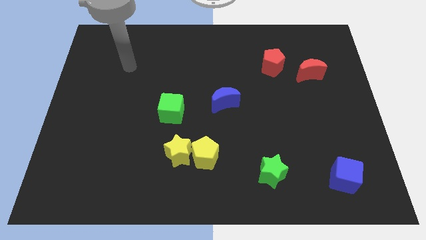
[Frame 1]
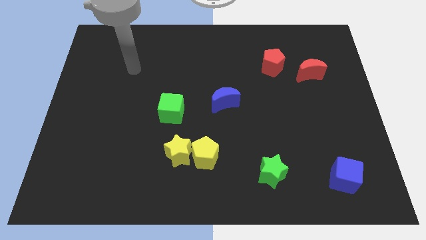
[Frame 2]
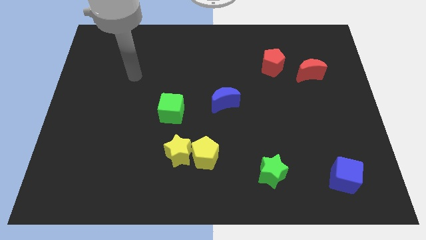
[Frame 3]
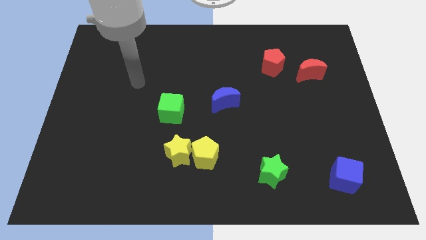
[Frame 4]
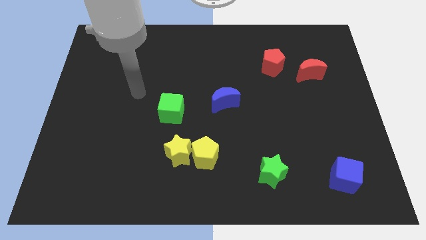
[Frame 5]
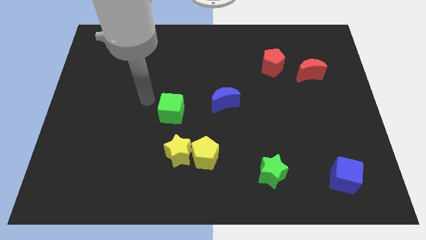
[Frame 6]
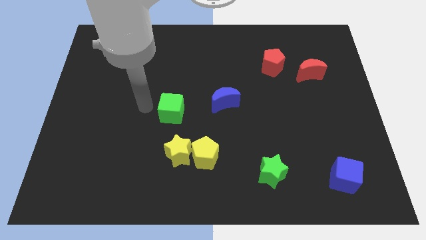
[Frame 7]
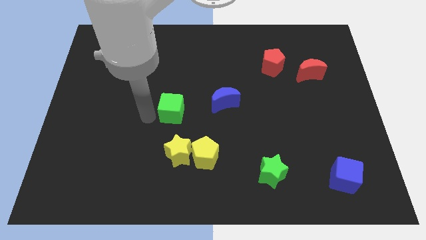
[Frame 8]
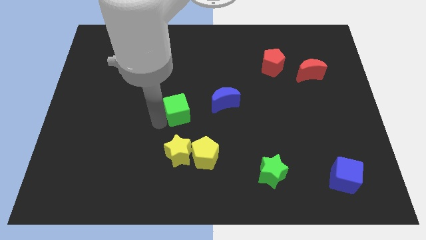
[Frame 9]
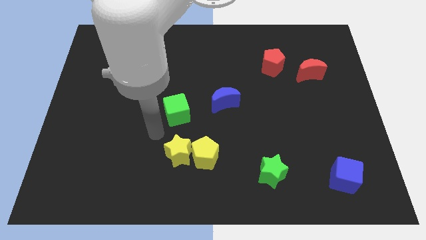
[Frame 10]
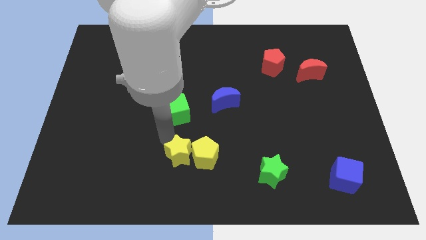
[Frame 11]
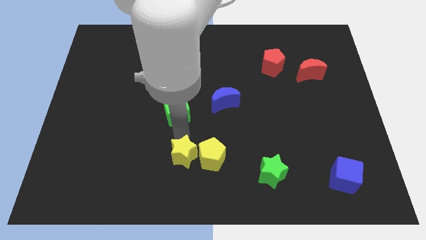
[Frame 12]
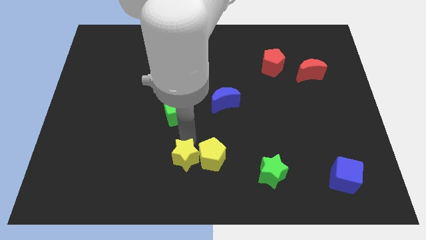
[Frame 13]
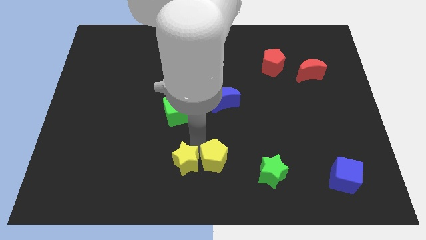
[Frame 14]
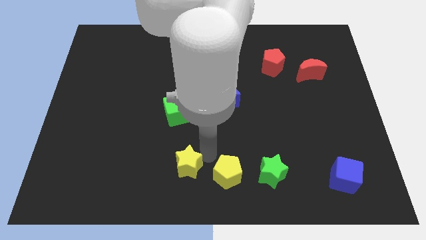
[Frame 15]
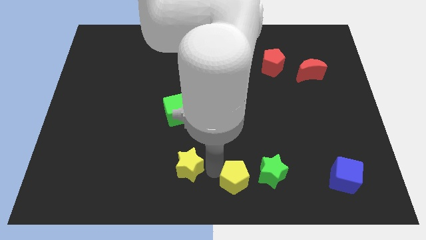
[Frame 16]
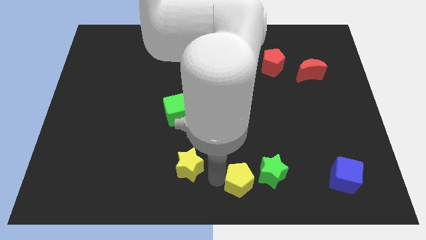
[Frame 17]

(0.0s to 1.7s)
separate the yellow star from the yellow pentagon

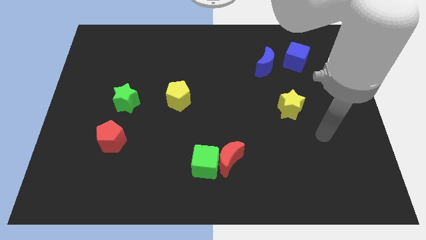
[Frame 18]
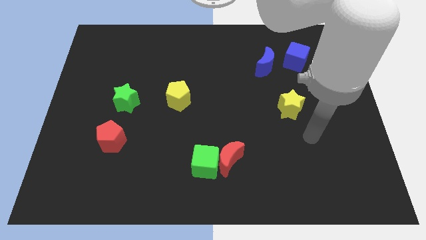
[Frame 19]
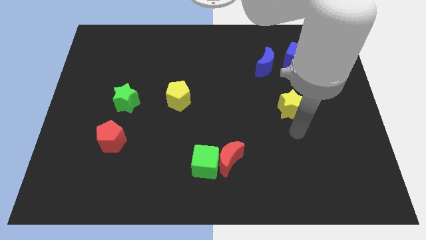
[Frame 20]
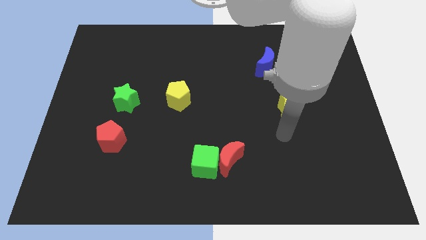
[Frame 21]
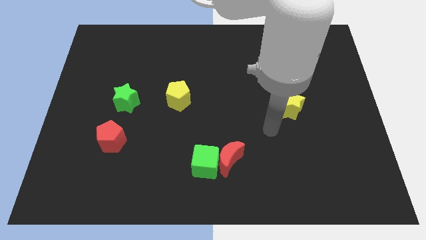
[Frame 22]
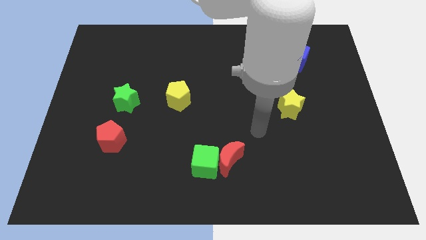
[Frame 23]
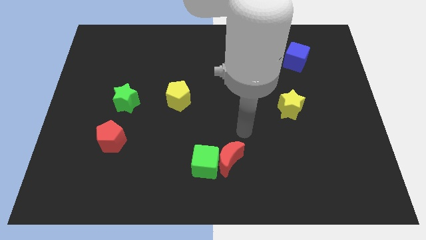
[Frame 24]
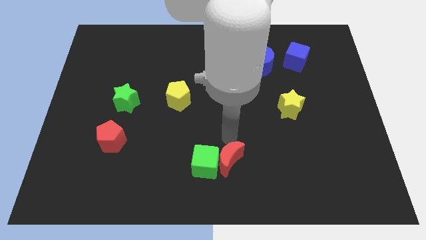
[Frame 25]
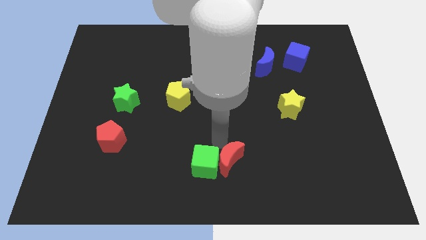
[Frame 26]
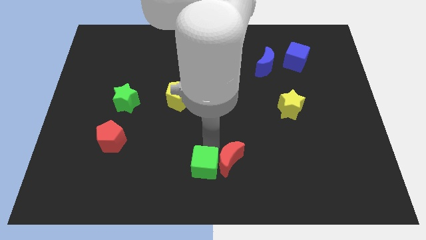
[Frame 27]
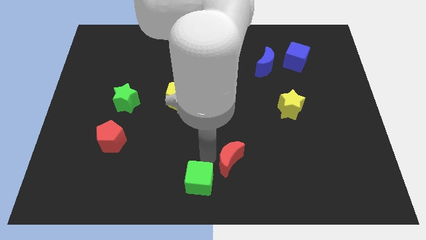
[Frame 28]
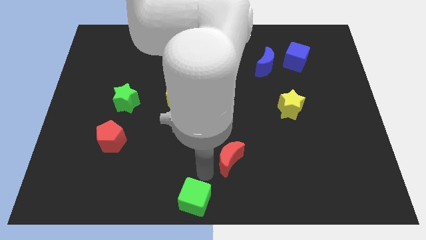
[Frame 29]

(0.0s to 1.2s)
separate the red moon from the green cube

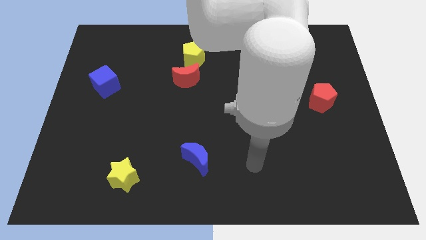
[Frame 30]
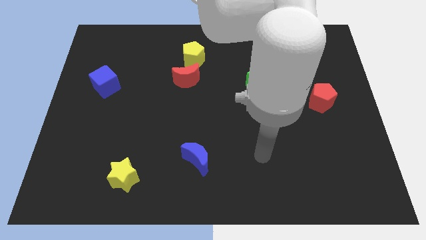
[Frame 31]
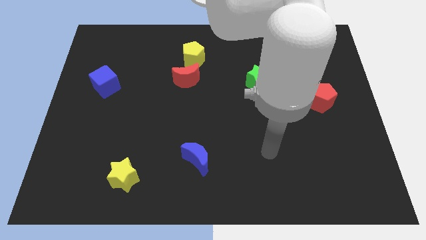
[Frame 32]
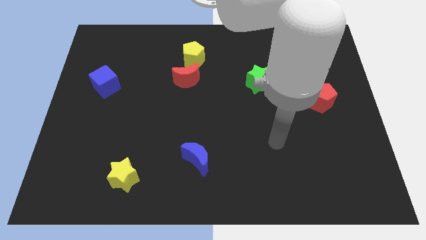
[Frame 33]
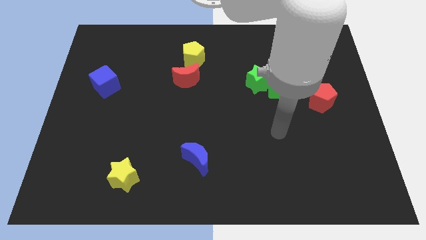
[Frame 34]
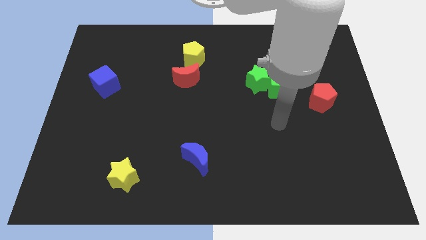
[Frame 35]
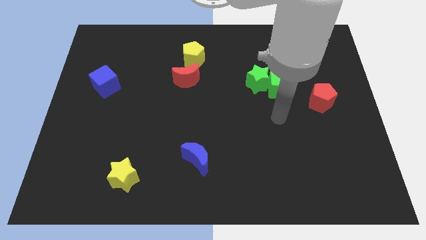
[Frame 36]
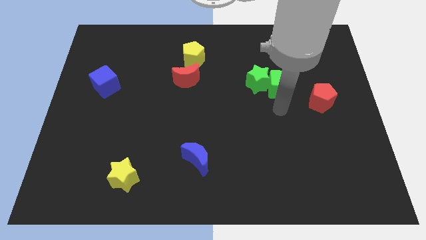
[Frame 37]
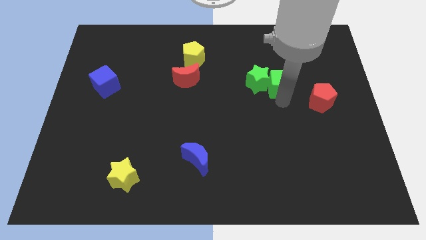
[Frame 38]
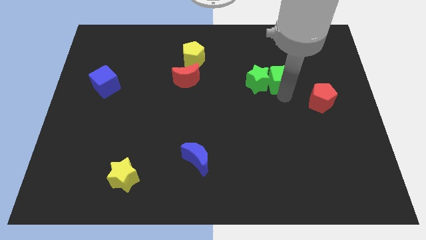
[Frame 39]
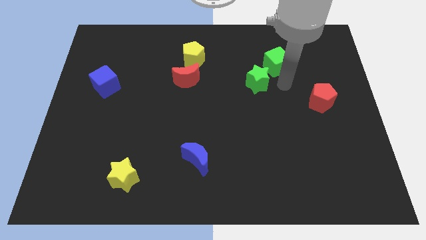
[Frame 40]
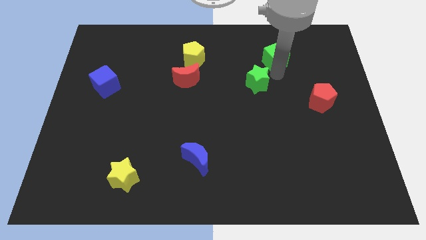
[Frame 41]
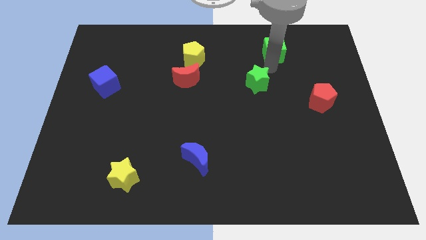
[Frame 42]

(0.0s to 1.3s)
move the green star away from the green cube

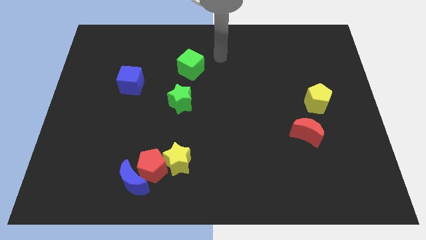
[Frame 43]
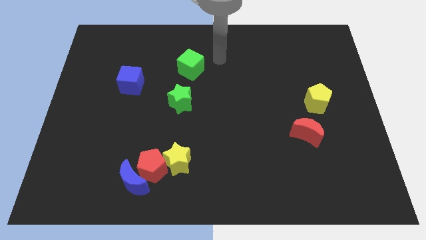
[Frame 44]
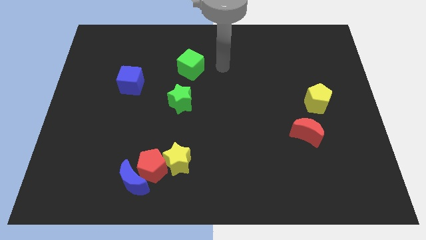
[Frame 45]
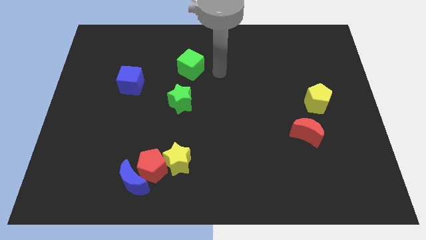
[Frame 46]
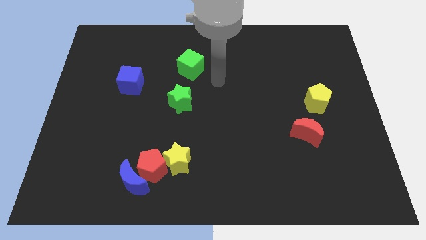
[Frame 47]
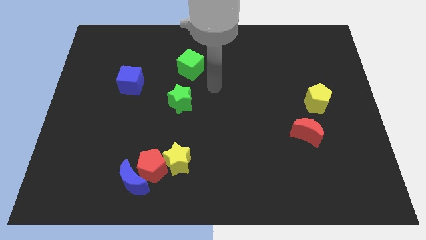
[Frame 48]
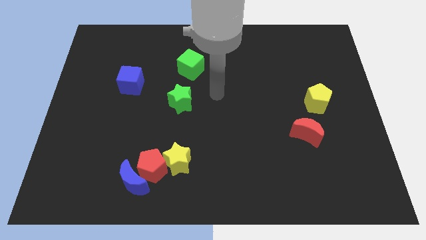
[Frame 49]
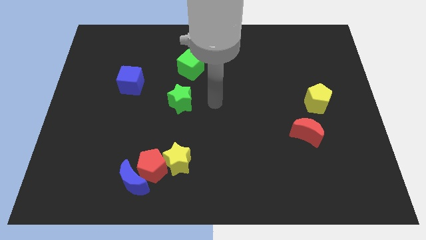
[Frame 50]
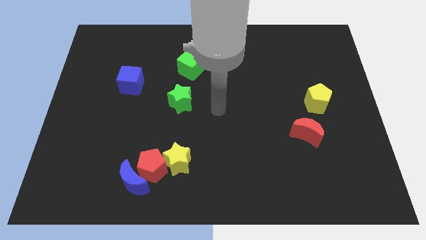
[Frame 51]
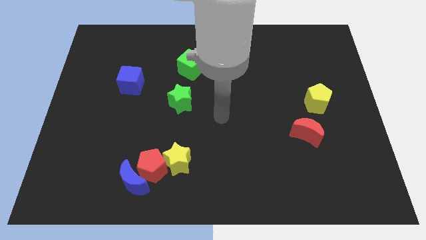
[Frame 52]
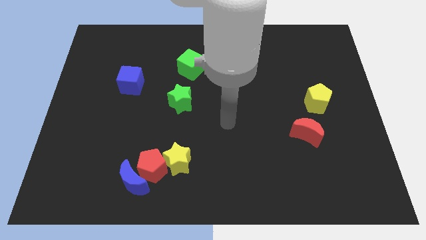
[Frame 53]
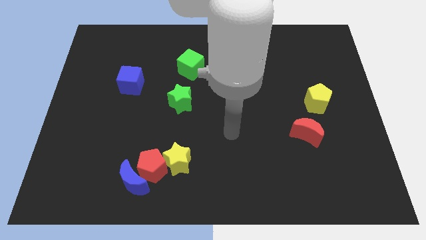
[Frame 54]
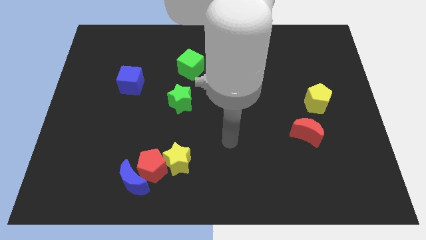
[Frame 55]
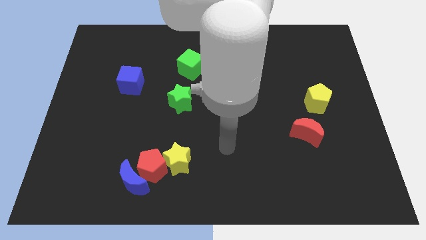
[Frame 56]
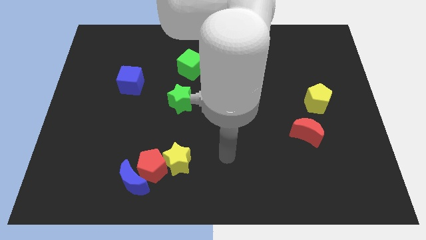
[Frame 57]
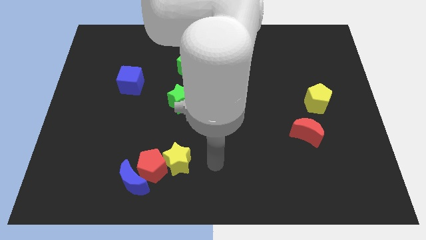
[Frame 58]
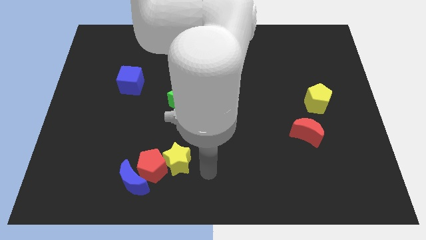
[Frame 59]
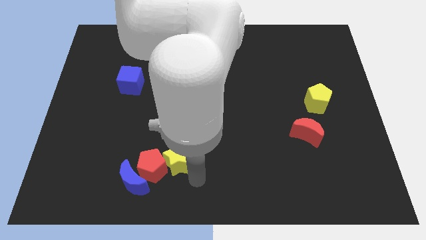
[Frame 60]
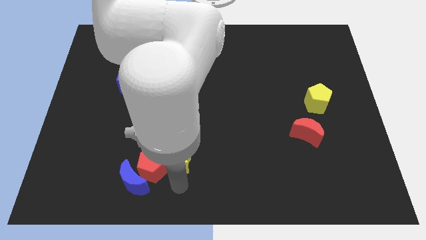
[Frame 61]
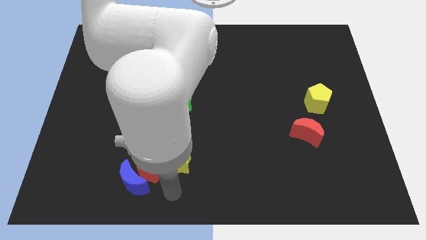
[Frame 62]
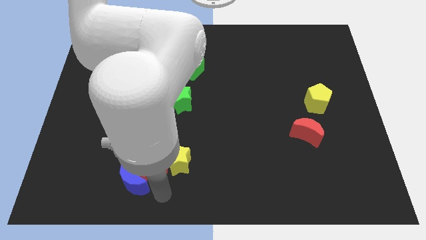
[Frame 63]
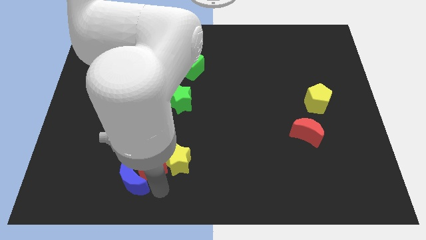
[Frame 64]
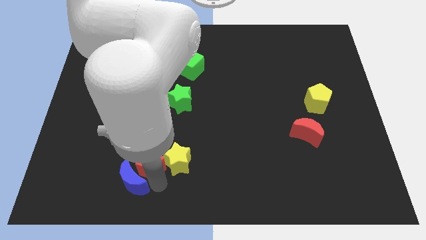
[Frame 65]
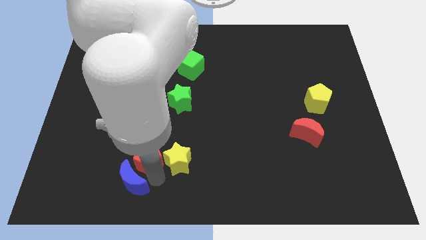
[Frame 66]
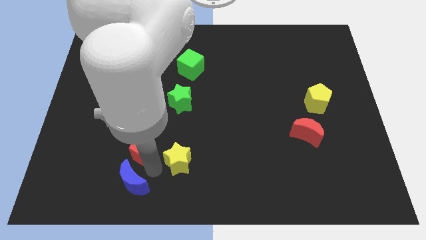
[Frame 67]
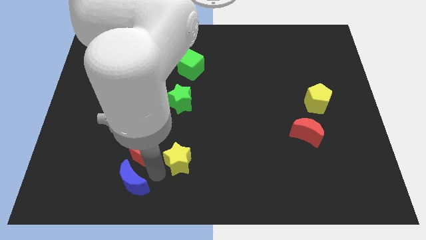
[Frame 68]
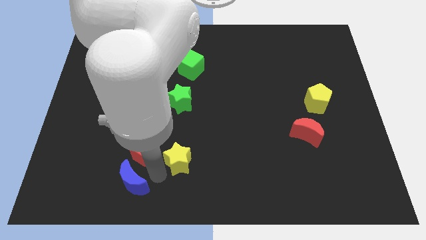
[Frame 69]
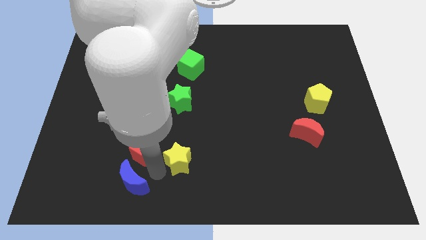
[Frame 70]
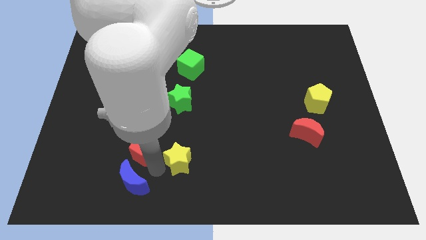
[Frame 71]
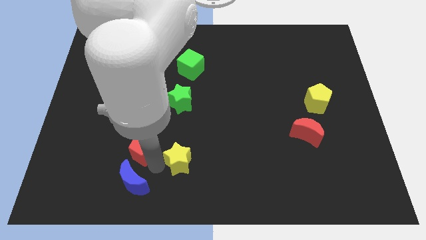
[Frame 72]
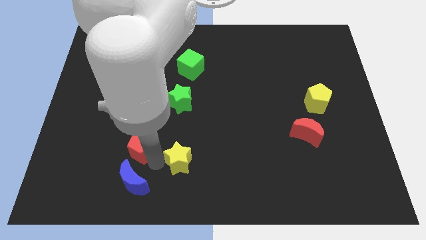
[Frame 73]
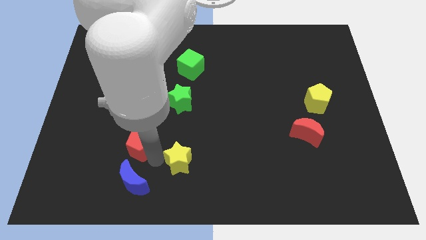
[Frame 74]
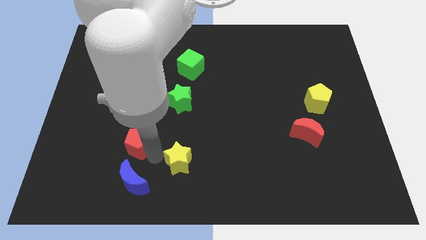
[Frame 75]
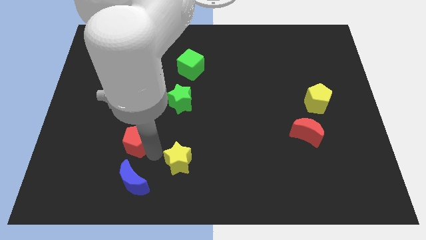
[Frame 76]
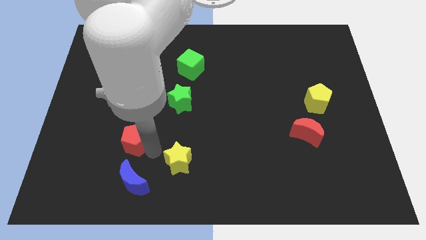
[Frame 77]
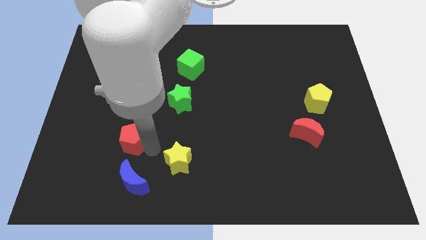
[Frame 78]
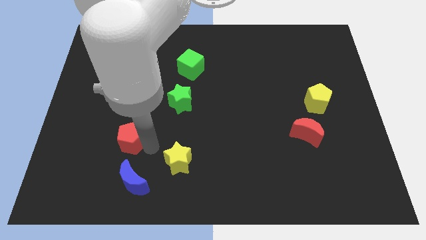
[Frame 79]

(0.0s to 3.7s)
move the red pentagon away from the blue moon and yellow star

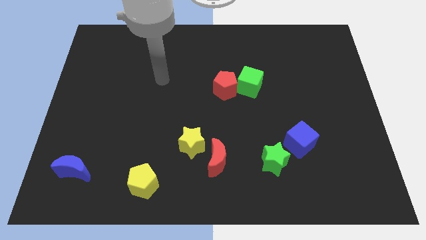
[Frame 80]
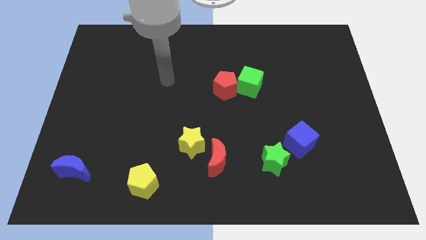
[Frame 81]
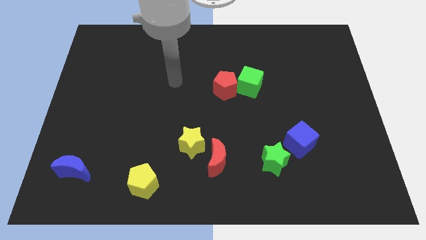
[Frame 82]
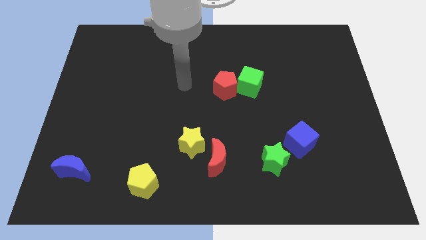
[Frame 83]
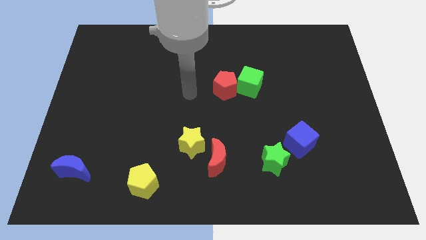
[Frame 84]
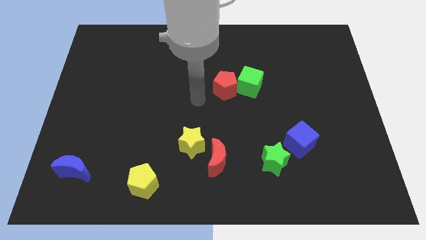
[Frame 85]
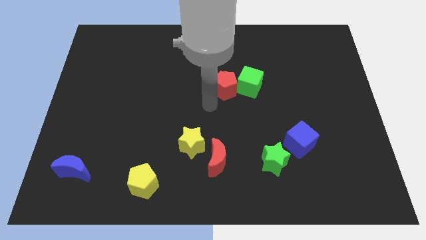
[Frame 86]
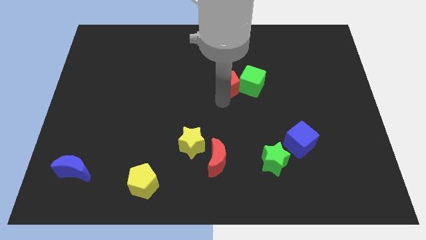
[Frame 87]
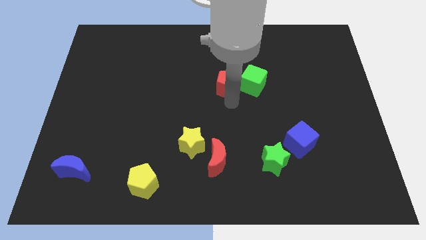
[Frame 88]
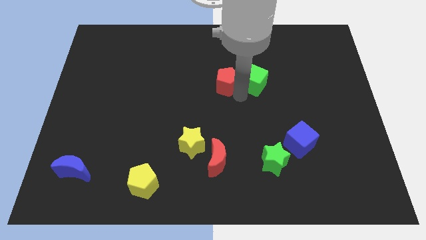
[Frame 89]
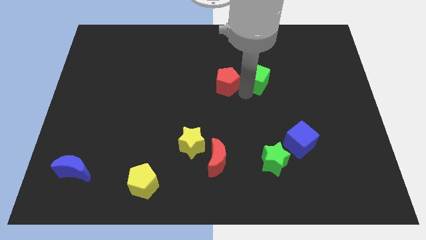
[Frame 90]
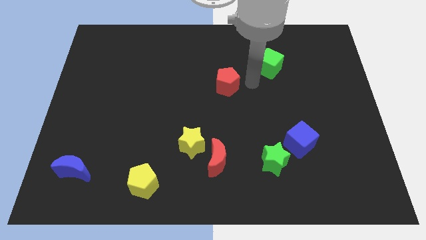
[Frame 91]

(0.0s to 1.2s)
separate the red pentagon from the green cube

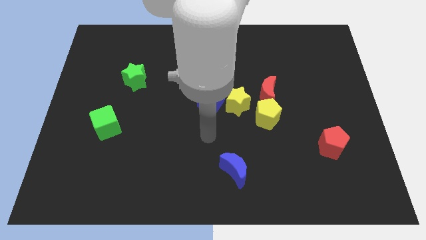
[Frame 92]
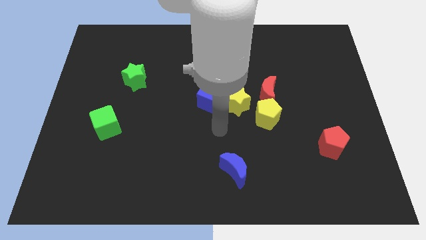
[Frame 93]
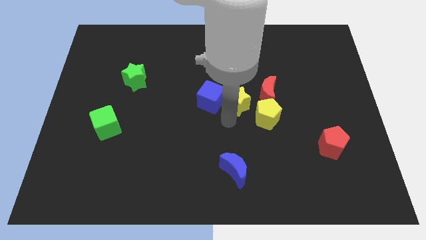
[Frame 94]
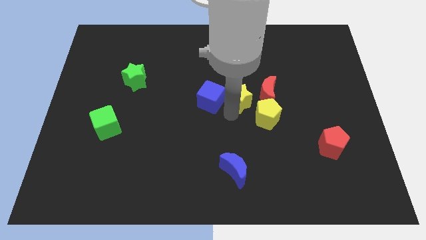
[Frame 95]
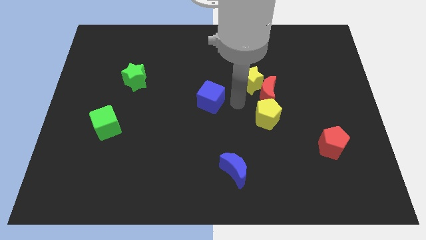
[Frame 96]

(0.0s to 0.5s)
move the blue cube away from the yellow star
